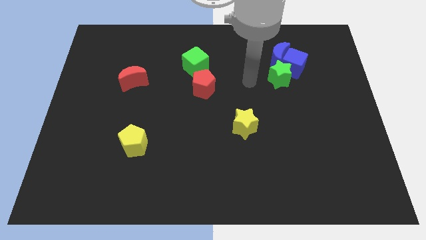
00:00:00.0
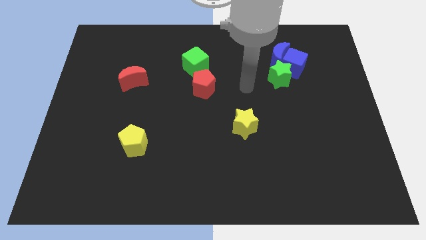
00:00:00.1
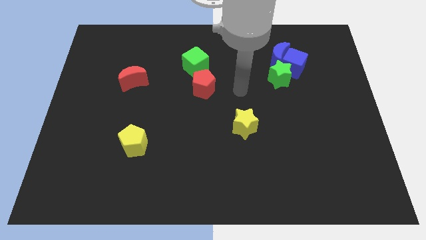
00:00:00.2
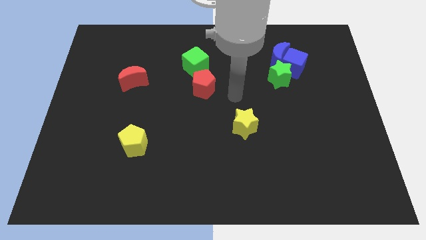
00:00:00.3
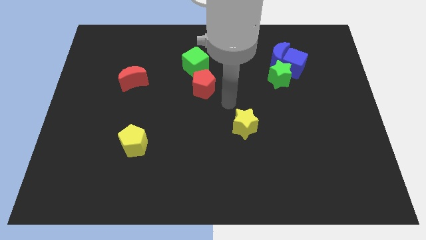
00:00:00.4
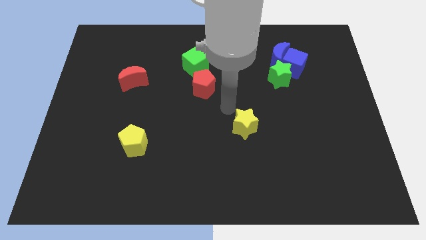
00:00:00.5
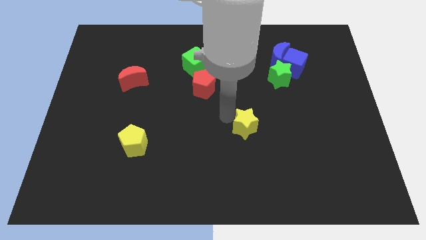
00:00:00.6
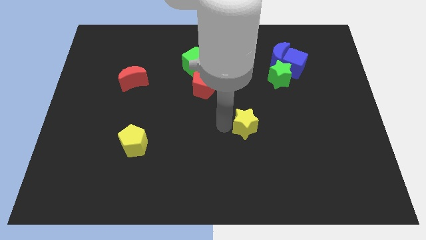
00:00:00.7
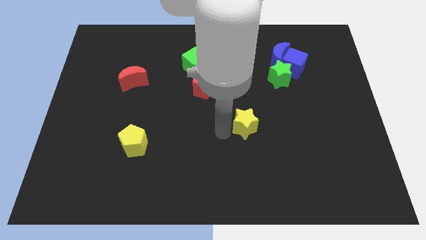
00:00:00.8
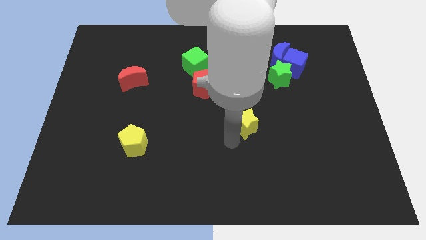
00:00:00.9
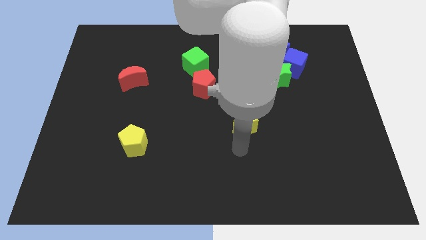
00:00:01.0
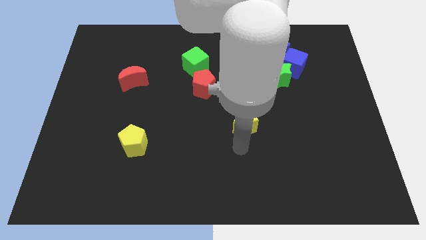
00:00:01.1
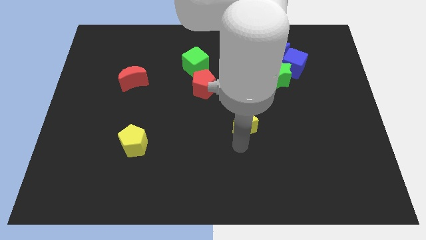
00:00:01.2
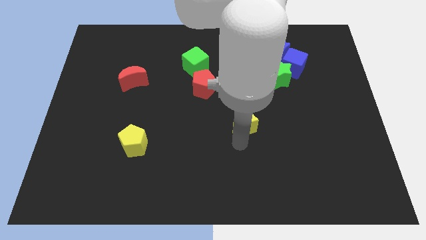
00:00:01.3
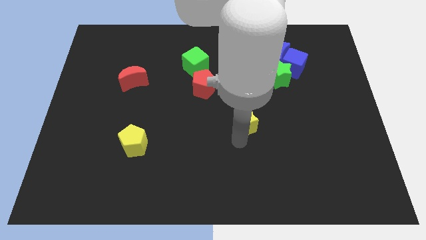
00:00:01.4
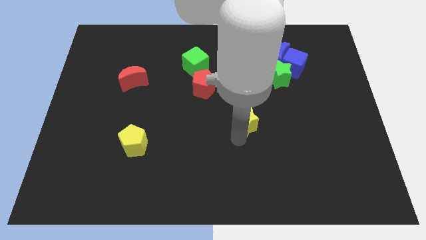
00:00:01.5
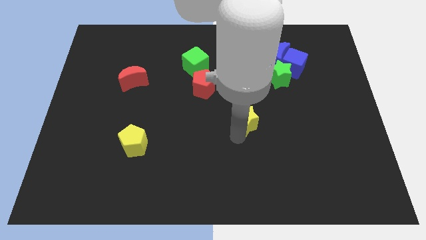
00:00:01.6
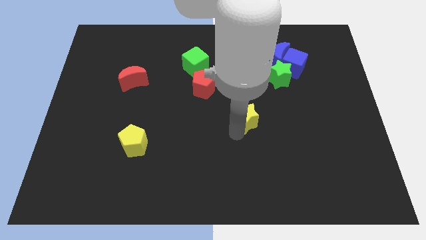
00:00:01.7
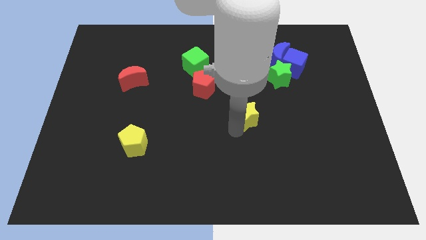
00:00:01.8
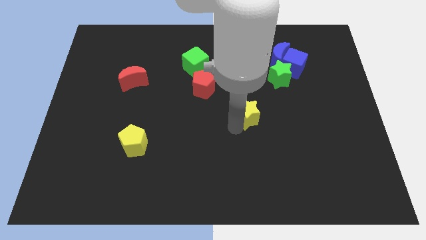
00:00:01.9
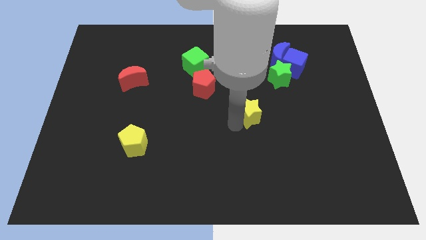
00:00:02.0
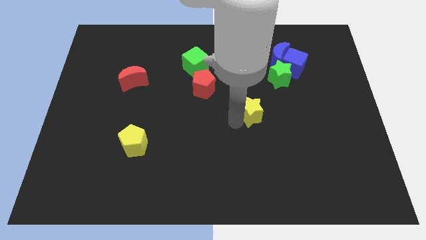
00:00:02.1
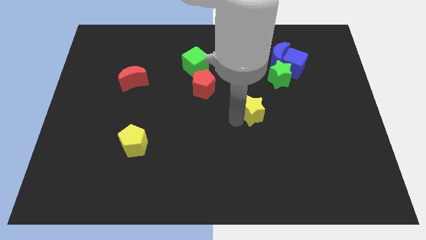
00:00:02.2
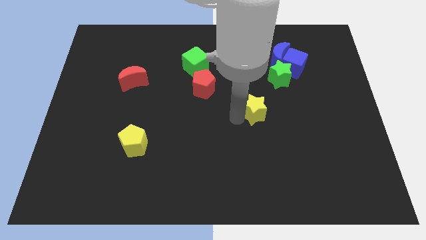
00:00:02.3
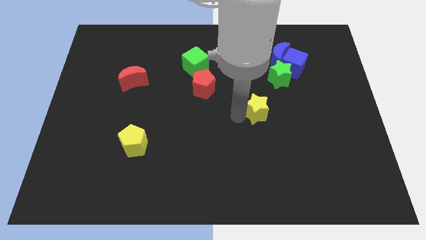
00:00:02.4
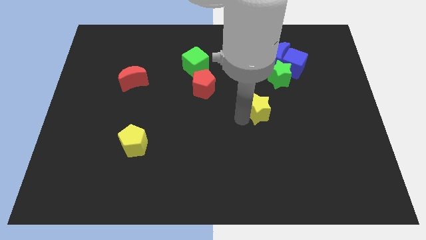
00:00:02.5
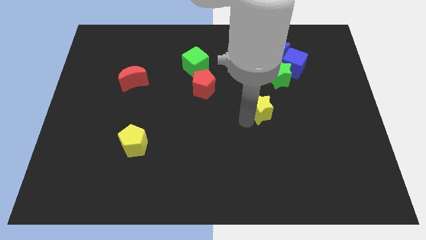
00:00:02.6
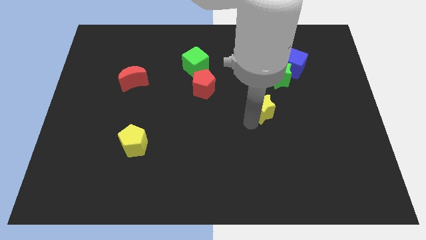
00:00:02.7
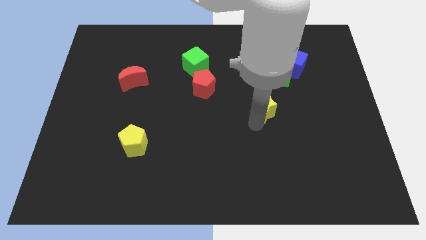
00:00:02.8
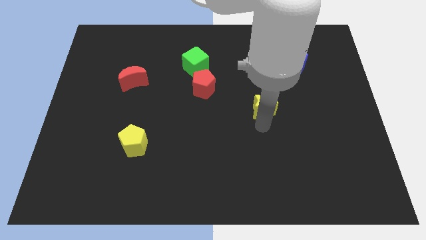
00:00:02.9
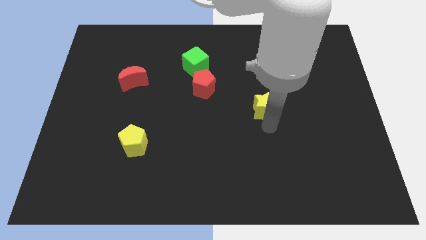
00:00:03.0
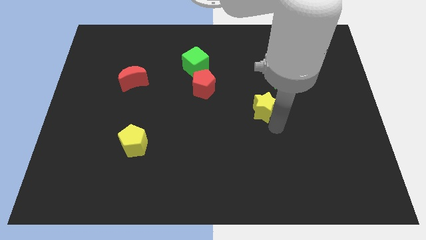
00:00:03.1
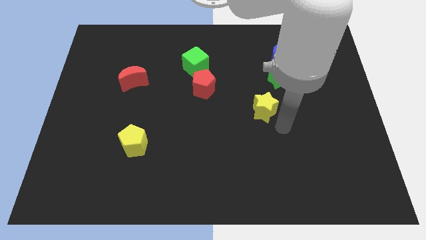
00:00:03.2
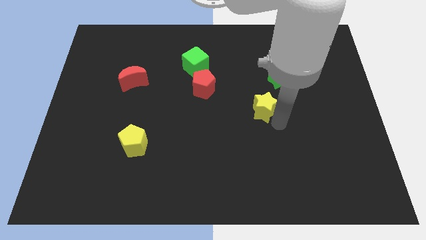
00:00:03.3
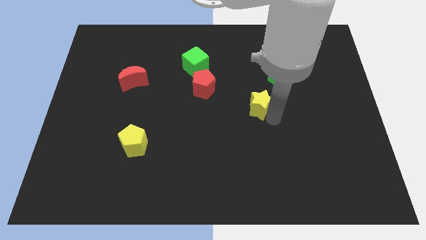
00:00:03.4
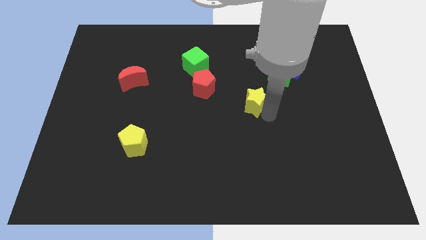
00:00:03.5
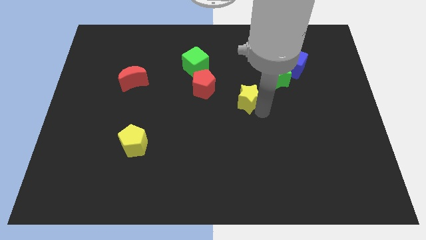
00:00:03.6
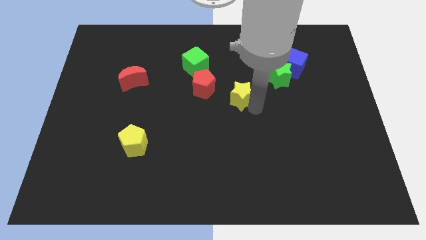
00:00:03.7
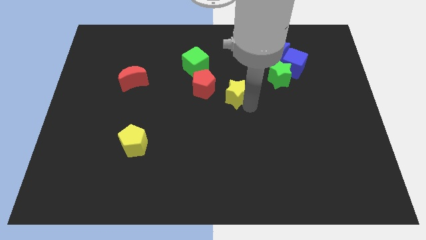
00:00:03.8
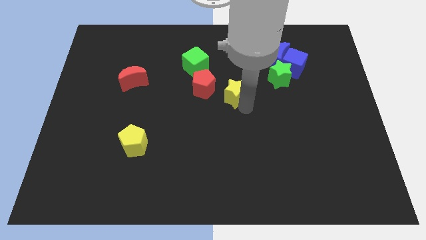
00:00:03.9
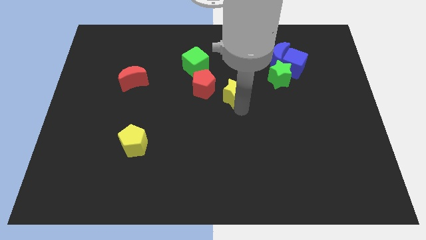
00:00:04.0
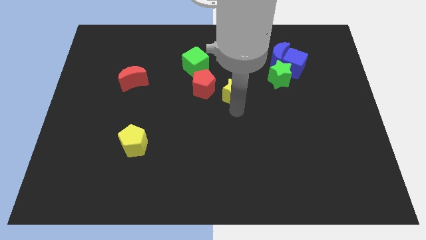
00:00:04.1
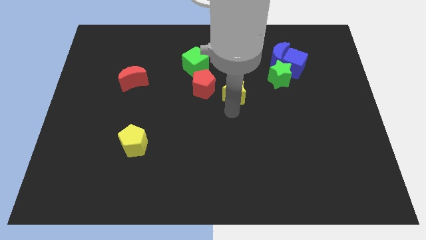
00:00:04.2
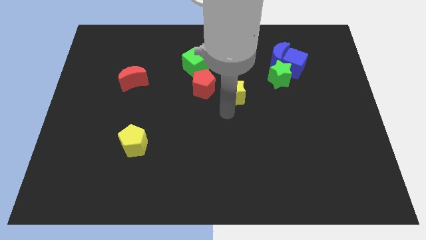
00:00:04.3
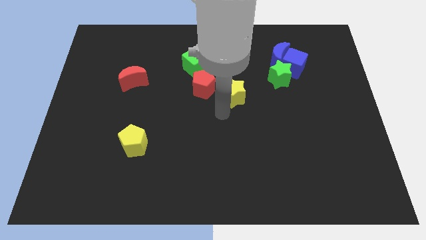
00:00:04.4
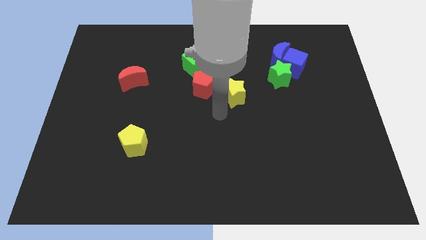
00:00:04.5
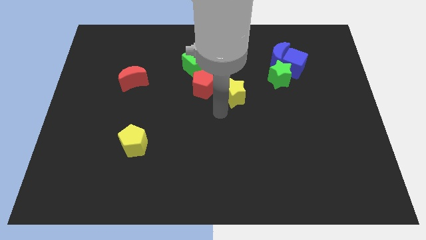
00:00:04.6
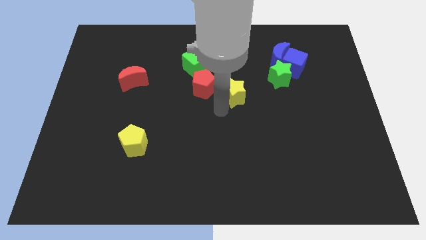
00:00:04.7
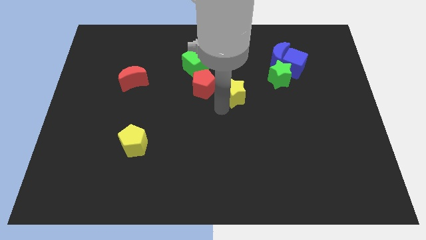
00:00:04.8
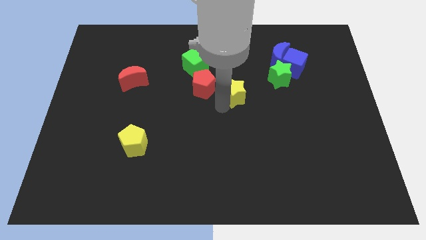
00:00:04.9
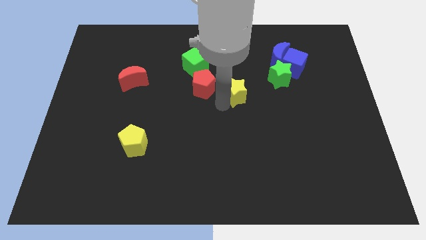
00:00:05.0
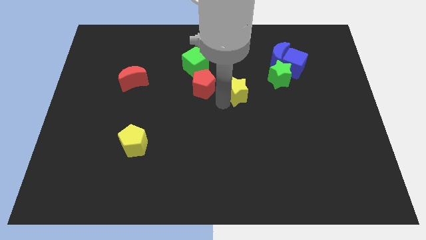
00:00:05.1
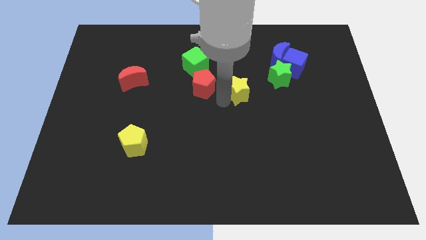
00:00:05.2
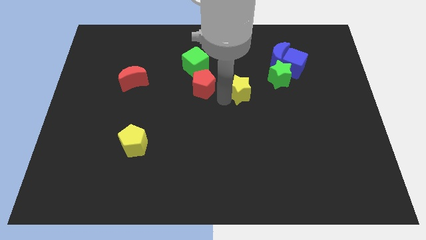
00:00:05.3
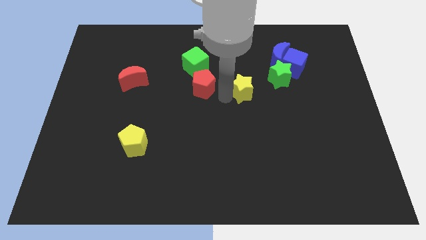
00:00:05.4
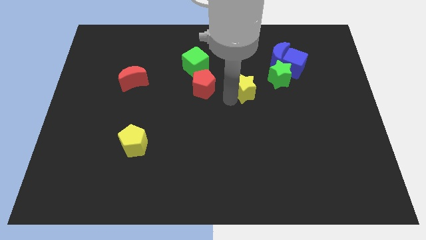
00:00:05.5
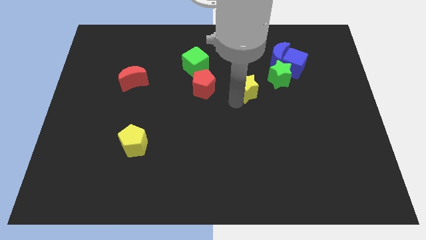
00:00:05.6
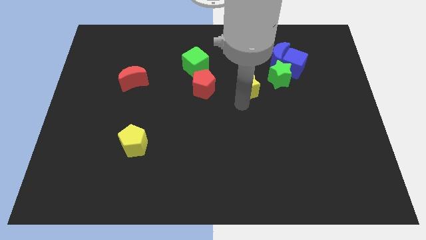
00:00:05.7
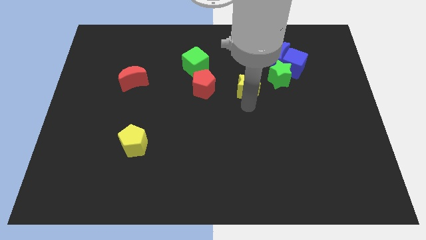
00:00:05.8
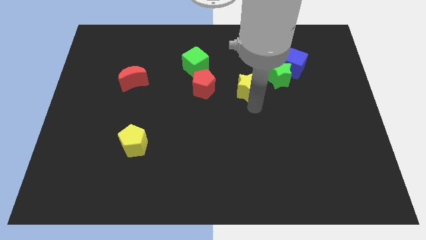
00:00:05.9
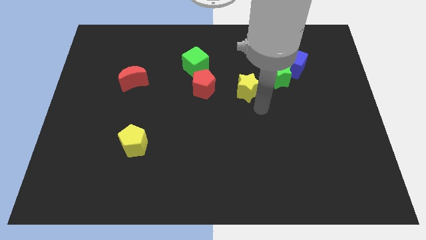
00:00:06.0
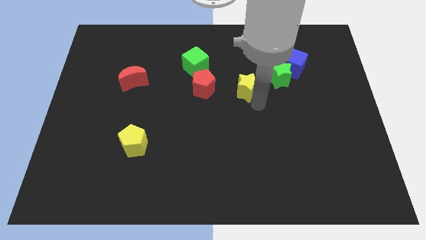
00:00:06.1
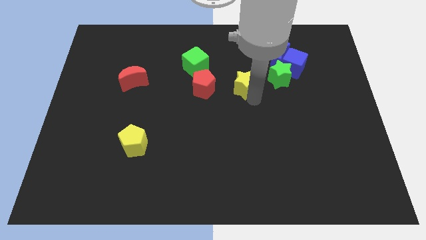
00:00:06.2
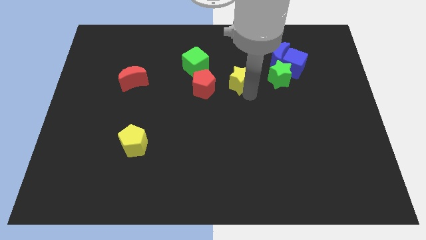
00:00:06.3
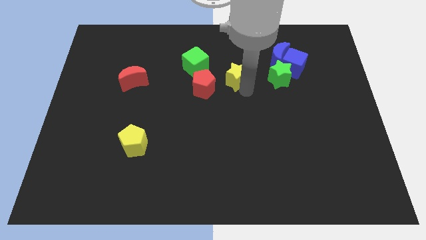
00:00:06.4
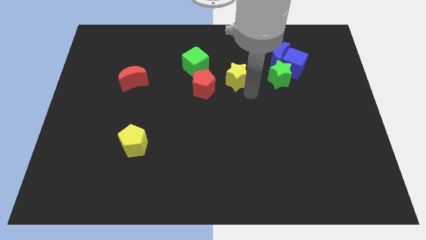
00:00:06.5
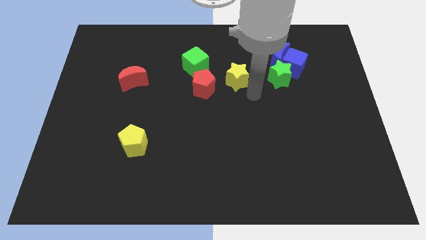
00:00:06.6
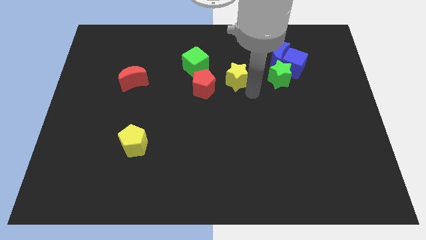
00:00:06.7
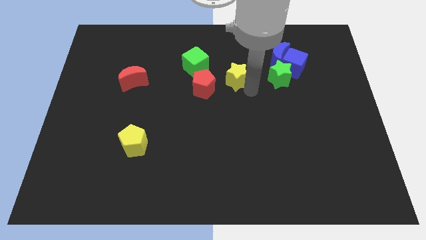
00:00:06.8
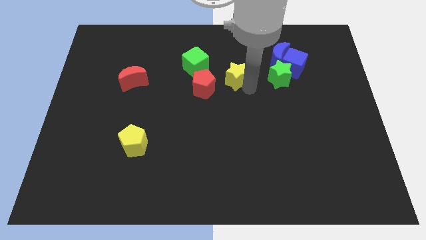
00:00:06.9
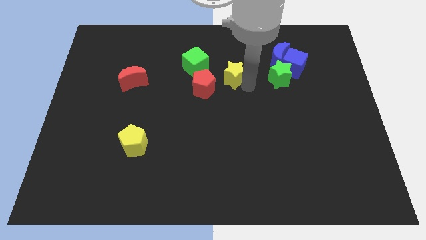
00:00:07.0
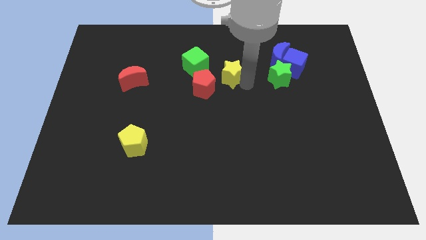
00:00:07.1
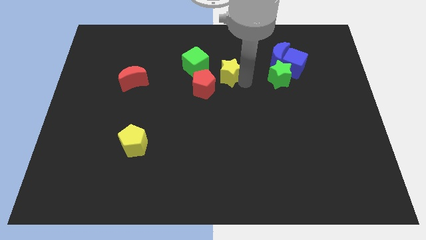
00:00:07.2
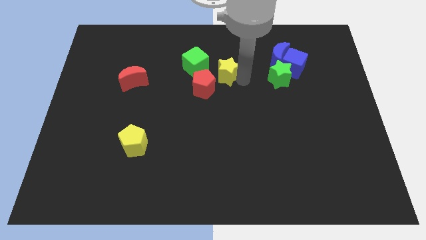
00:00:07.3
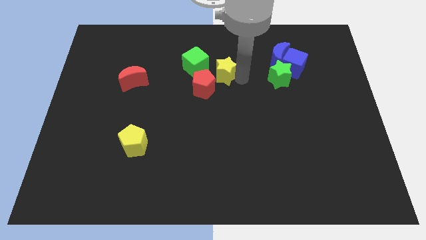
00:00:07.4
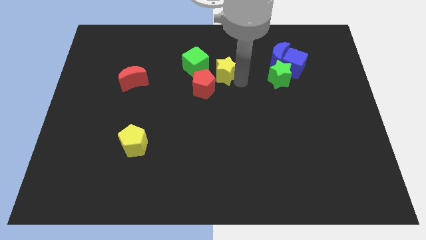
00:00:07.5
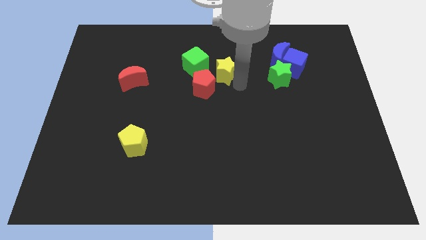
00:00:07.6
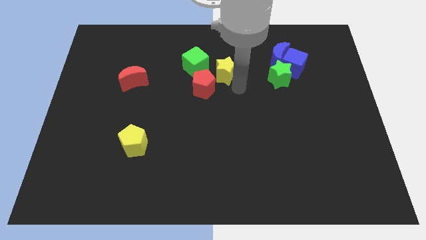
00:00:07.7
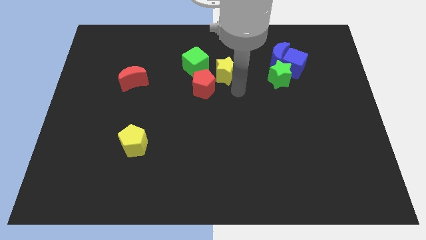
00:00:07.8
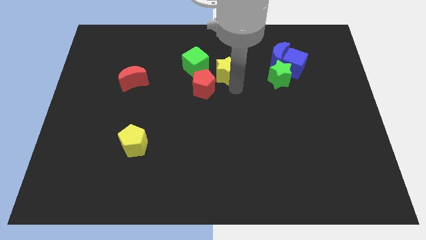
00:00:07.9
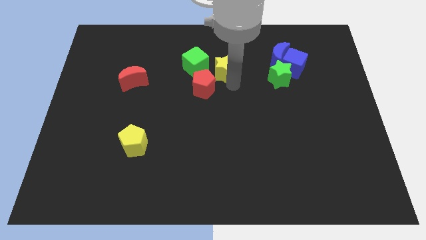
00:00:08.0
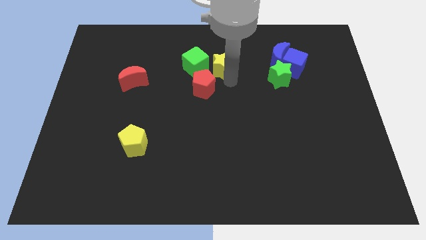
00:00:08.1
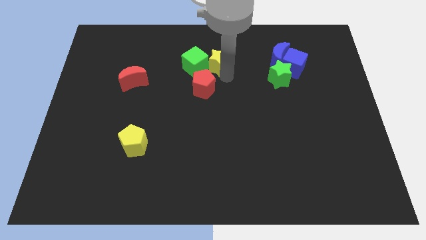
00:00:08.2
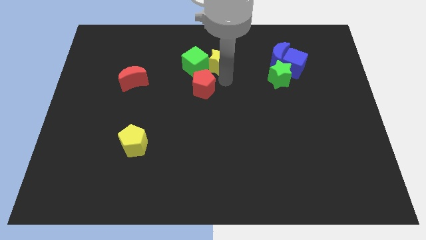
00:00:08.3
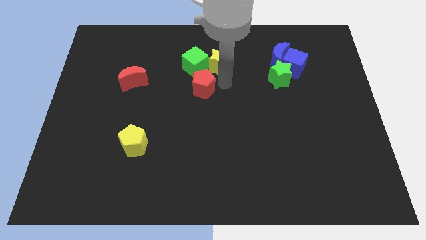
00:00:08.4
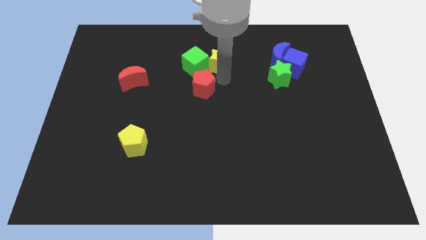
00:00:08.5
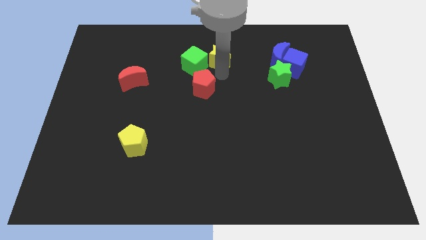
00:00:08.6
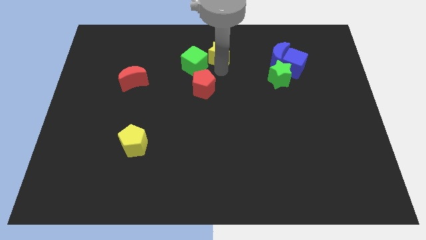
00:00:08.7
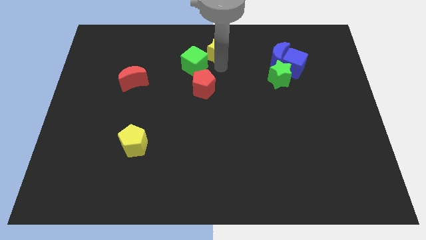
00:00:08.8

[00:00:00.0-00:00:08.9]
put the yellow star to the top side
